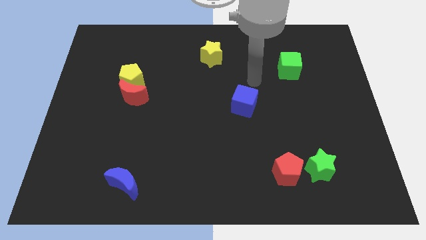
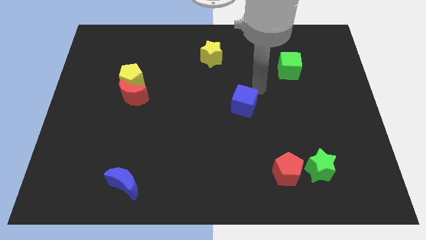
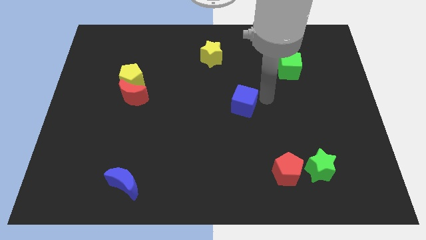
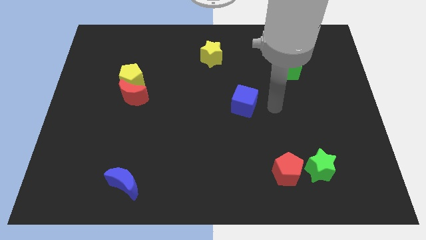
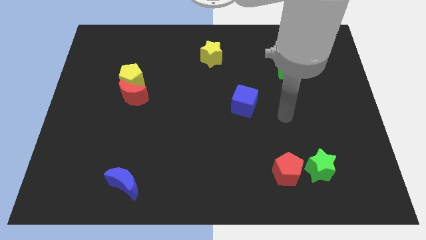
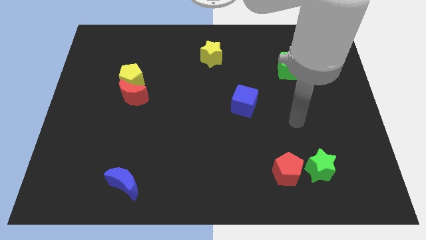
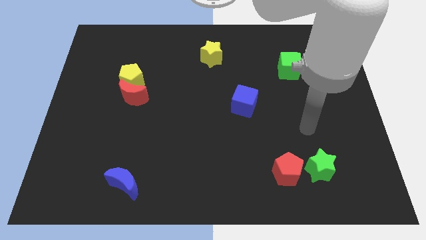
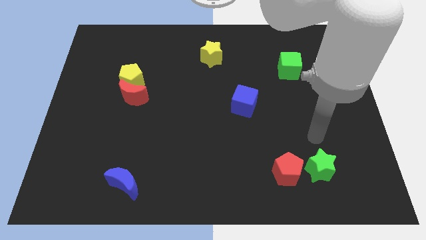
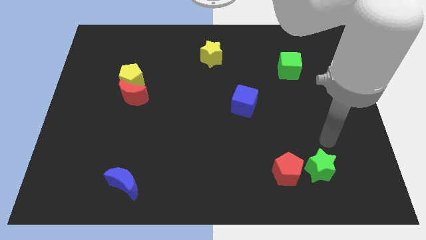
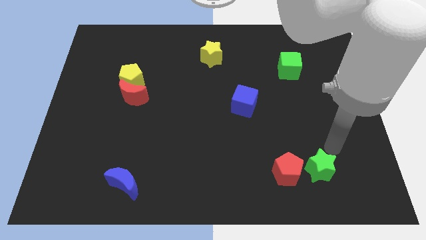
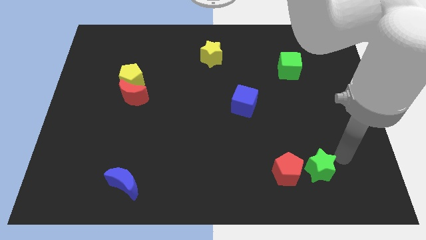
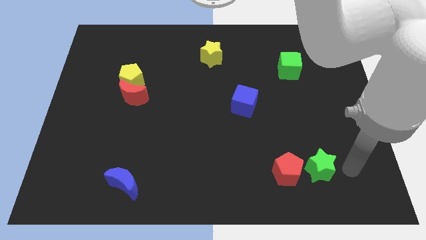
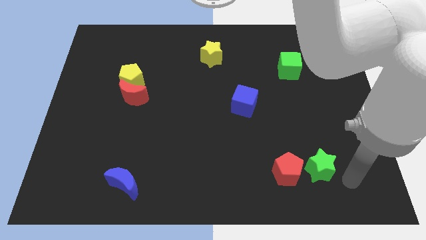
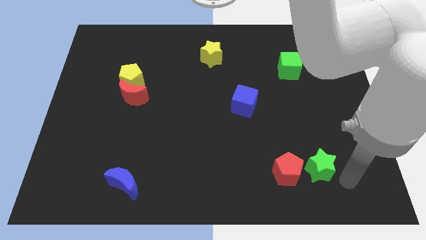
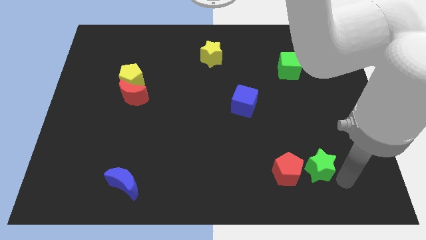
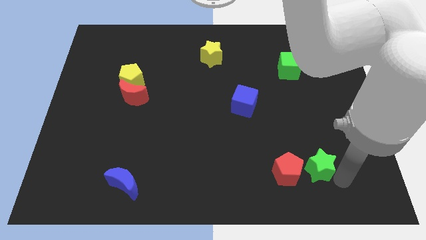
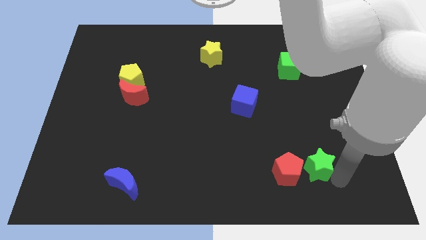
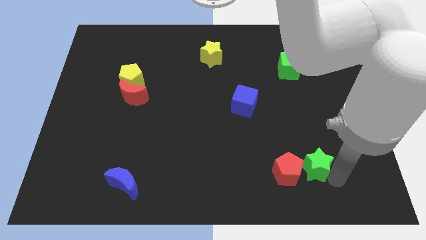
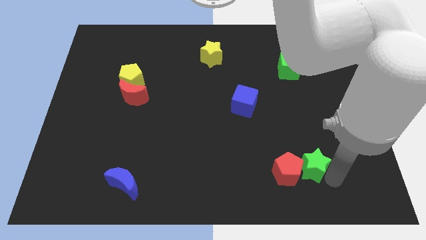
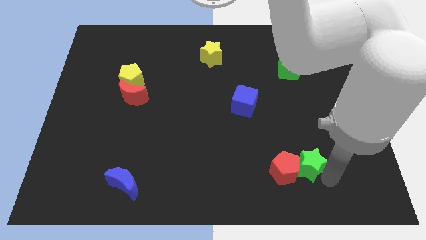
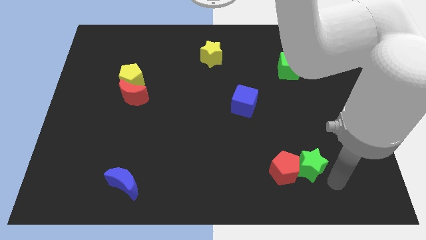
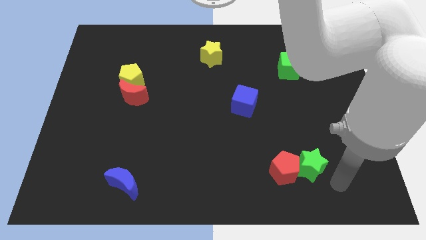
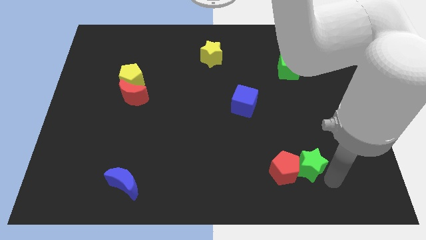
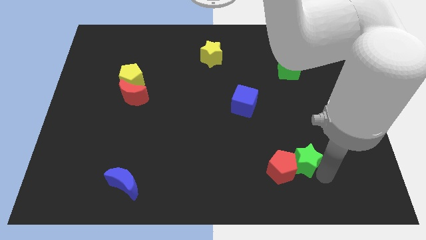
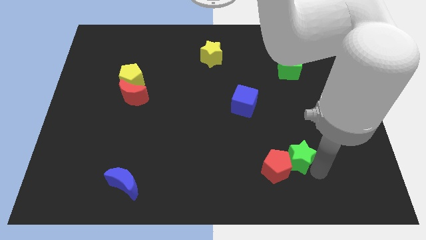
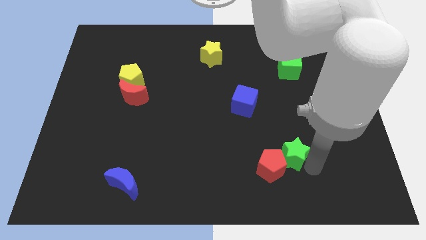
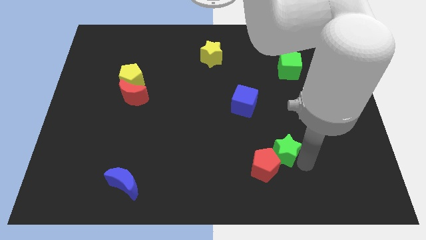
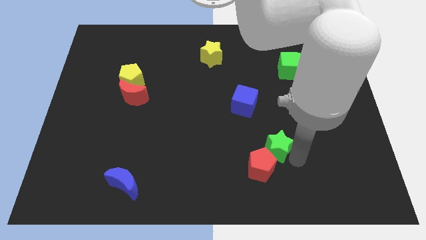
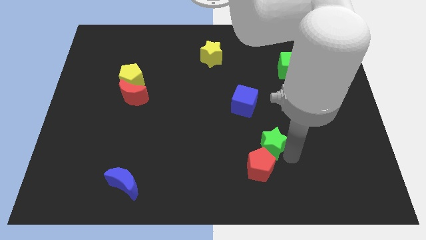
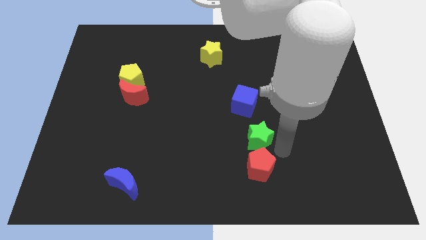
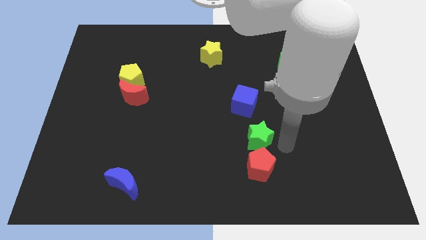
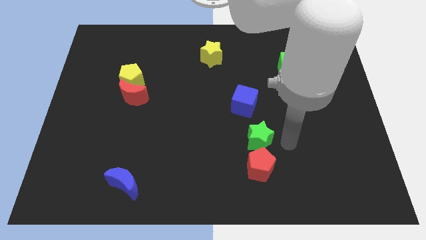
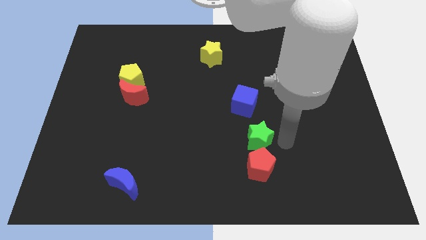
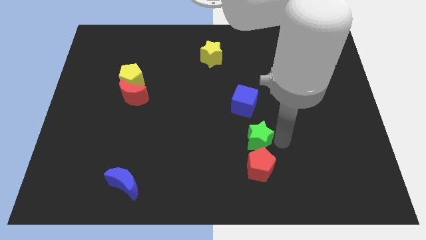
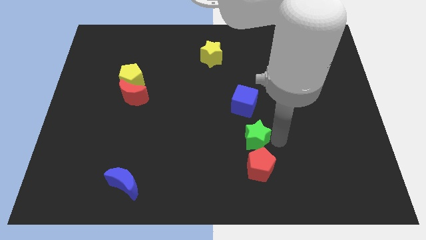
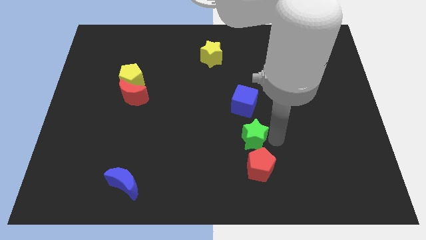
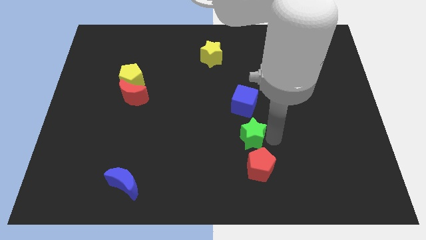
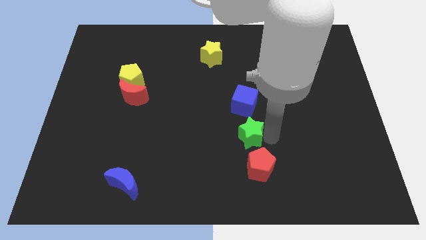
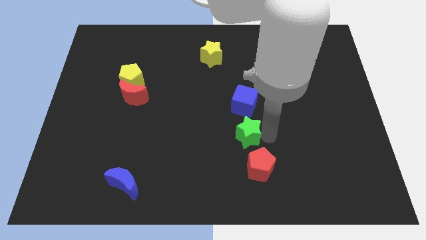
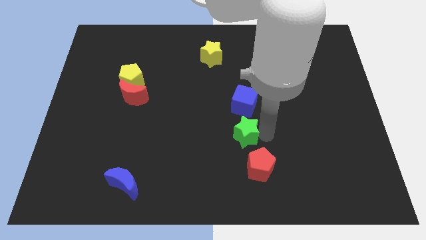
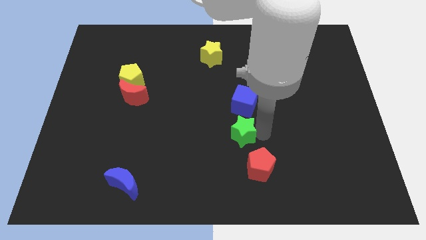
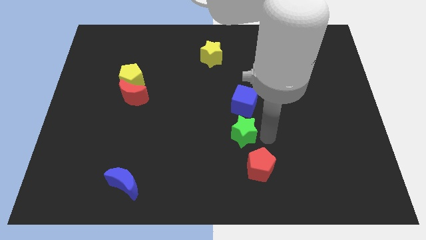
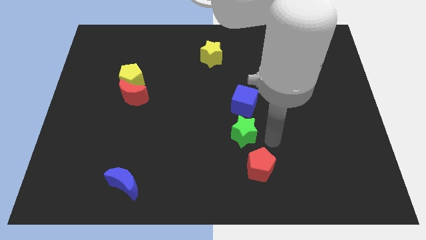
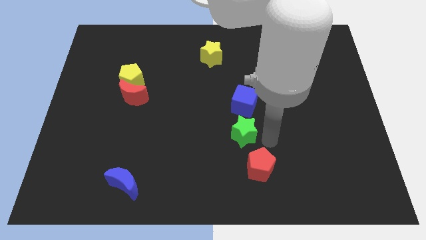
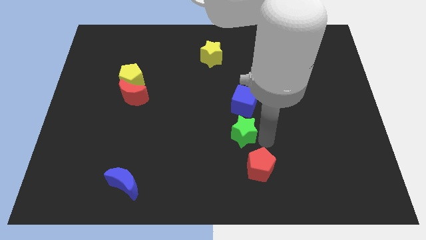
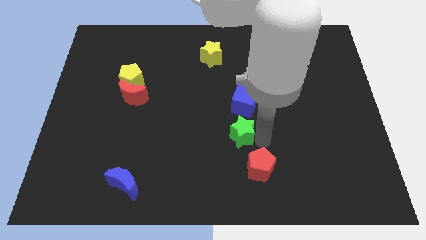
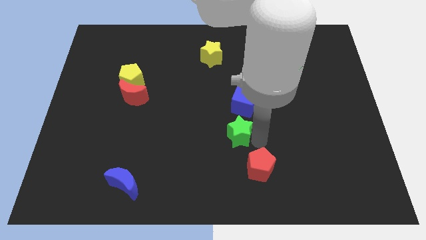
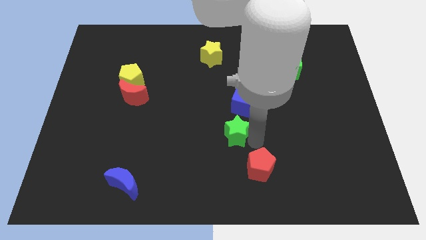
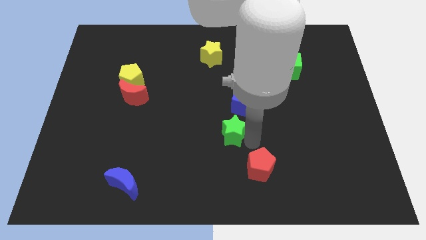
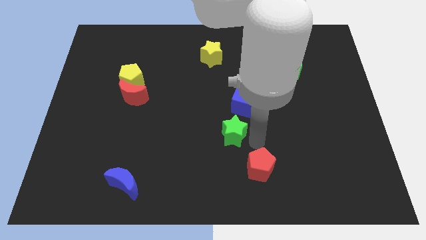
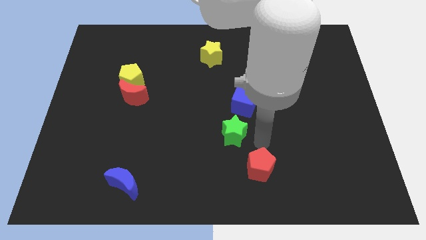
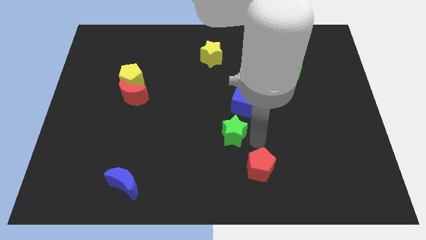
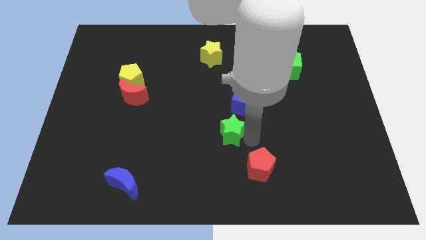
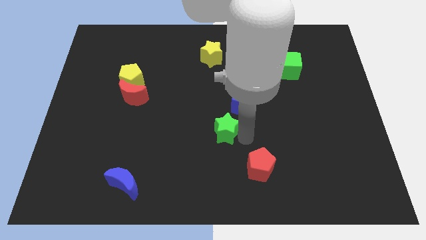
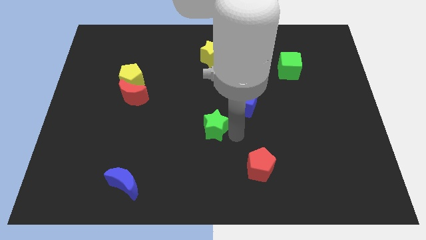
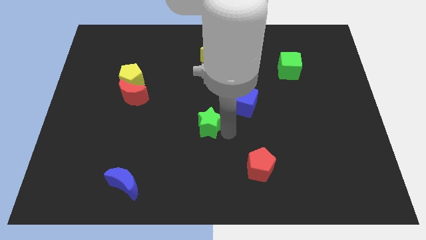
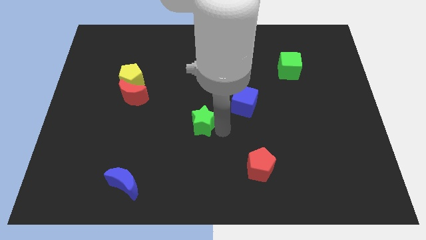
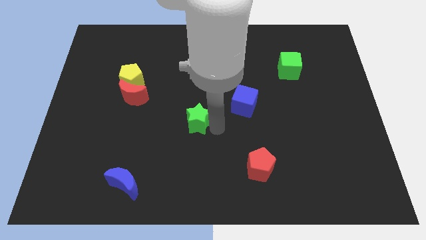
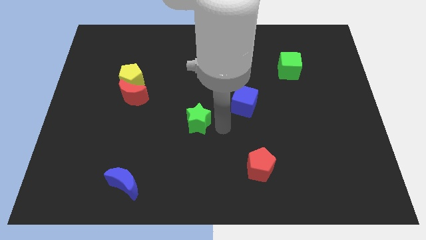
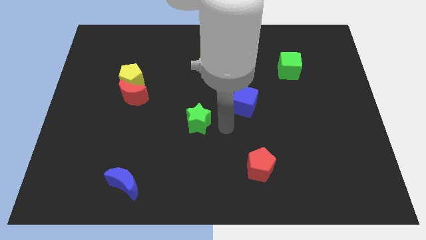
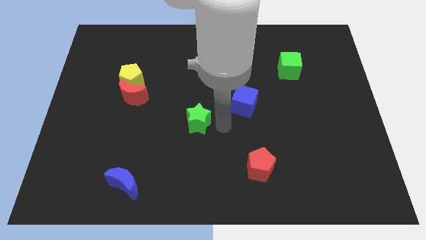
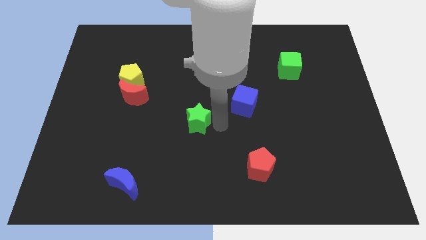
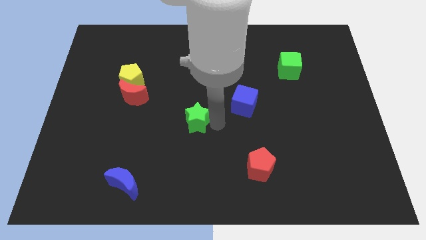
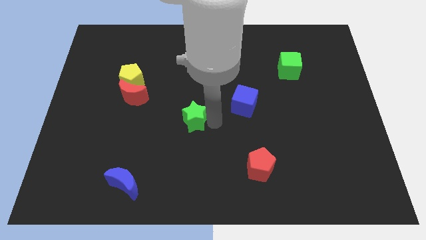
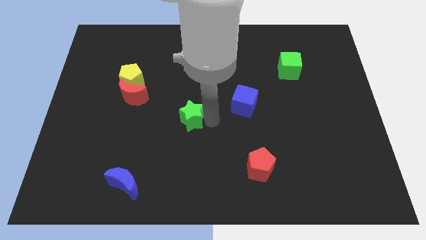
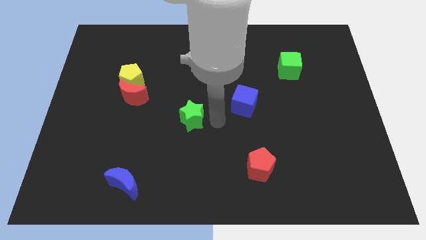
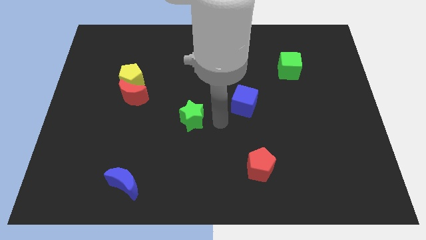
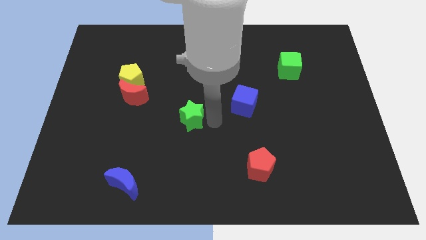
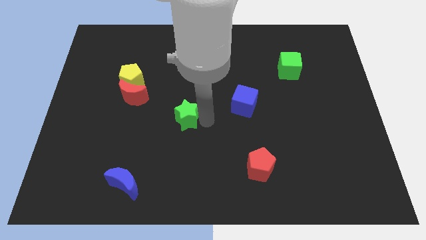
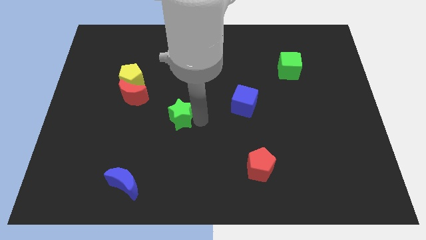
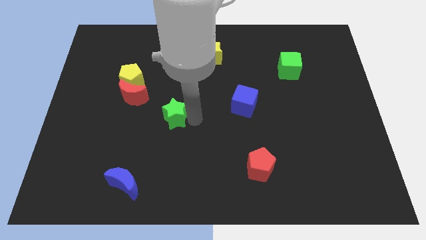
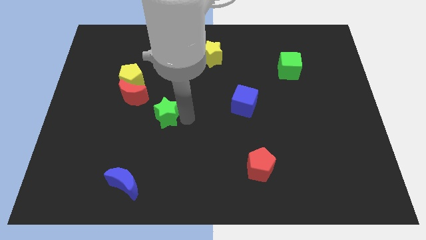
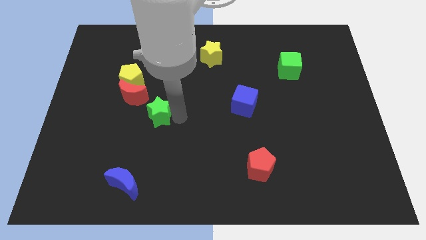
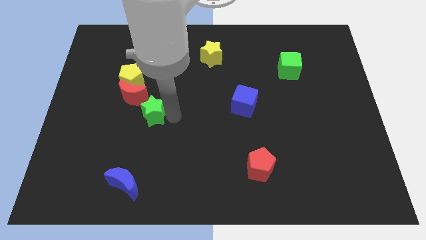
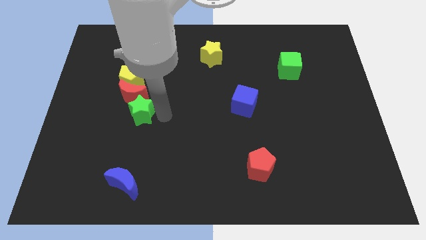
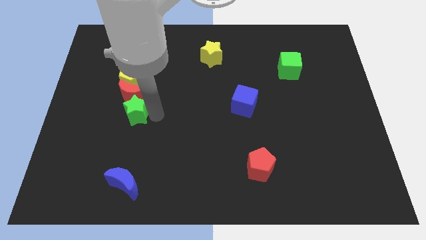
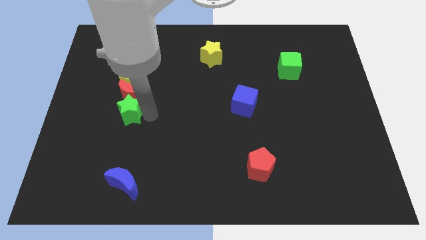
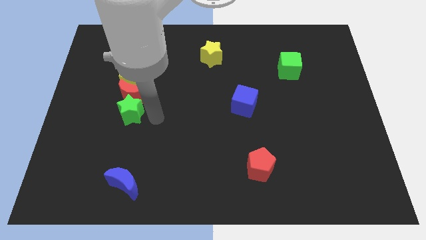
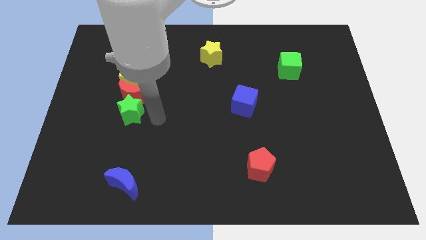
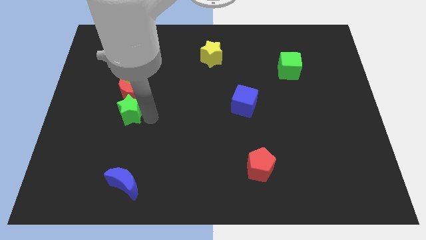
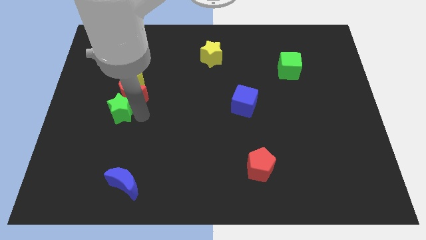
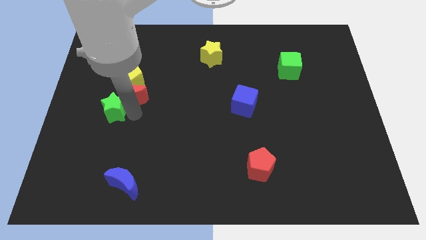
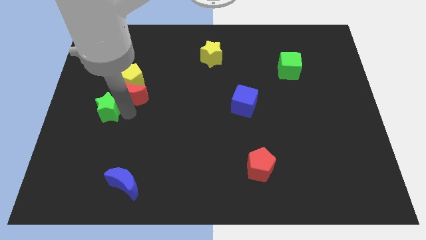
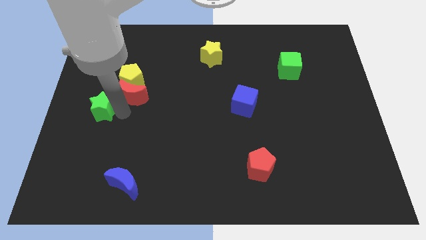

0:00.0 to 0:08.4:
put the green star to the center left
